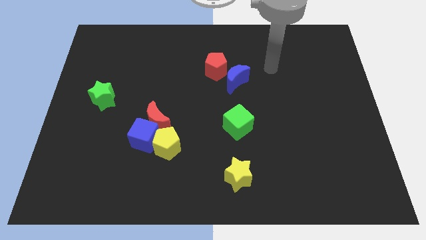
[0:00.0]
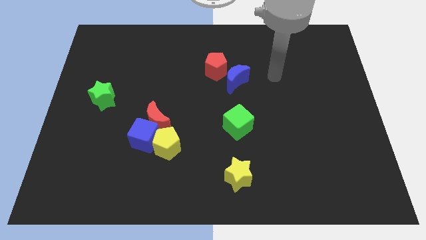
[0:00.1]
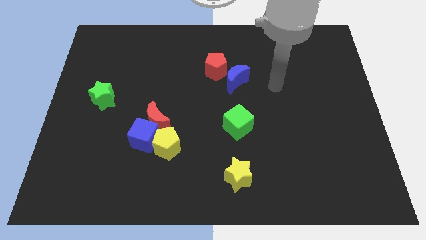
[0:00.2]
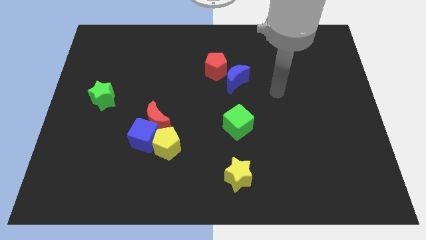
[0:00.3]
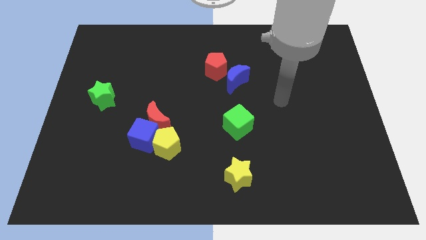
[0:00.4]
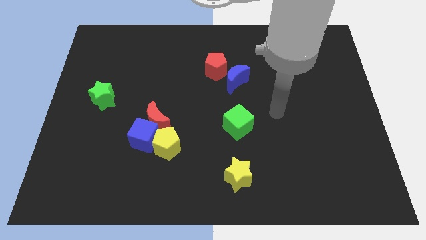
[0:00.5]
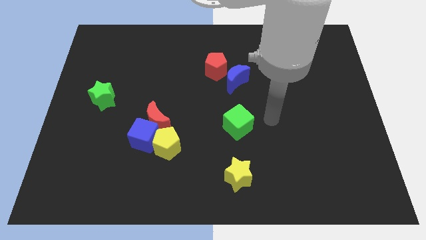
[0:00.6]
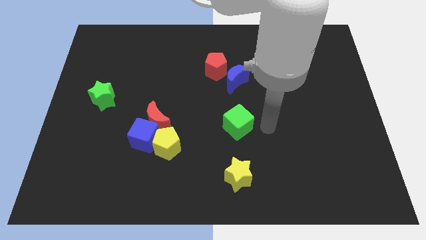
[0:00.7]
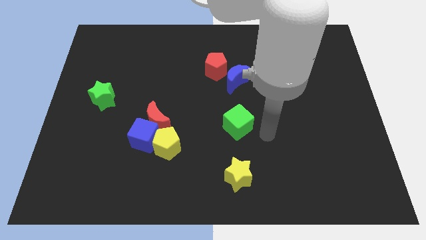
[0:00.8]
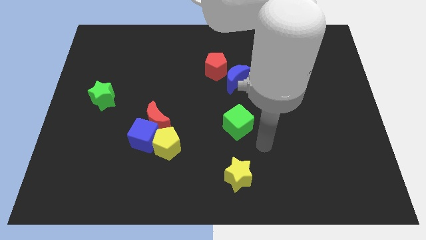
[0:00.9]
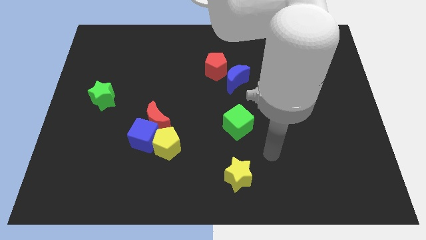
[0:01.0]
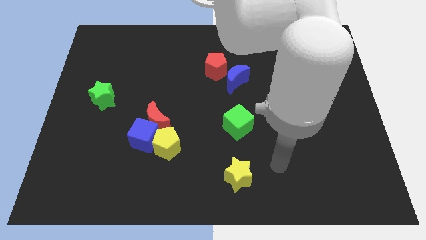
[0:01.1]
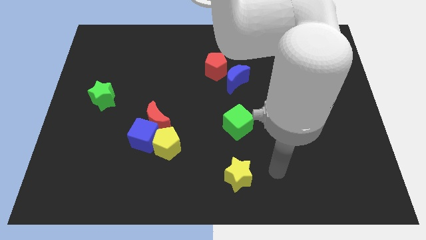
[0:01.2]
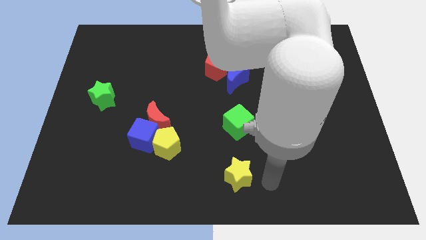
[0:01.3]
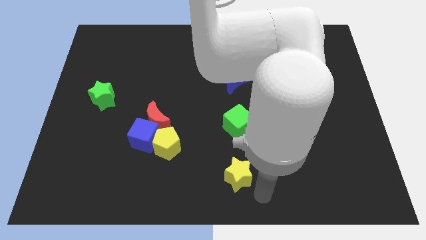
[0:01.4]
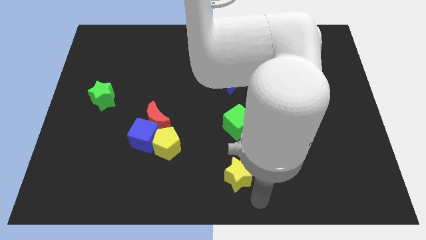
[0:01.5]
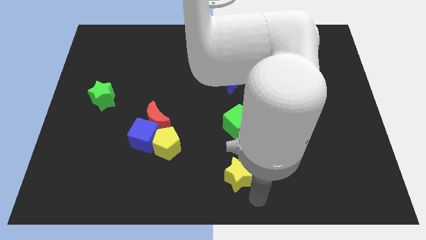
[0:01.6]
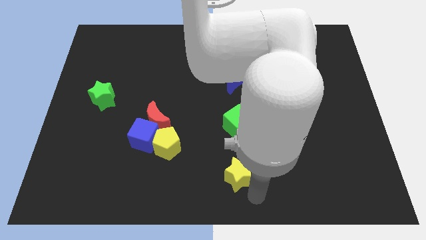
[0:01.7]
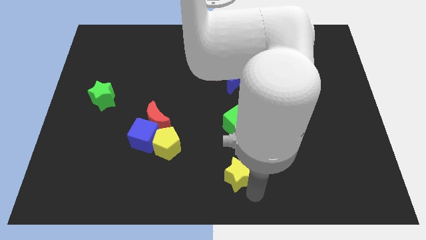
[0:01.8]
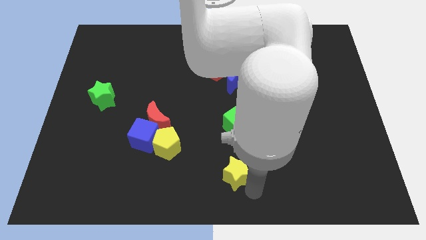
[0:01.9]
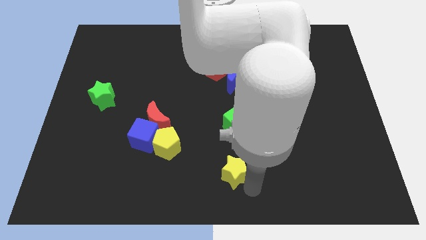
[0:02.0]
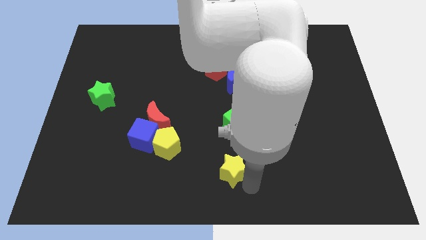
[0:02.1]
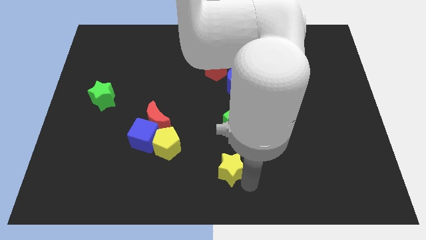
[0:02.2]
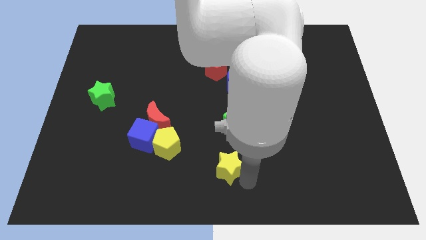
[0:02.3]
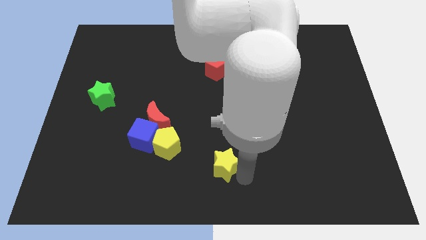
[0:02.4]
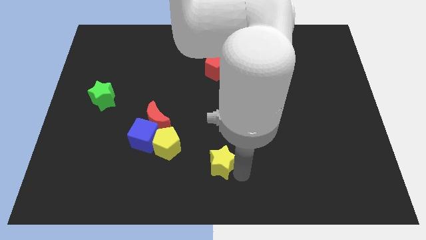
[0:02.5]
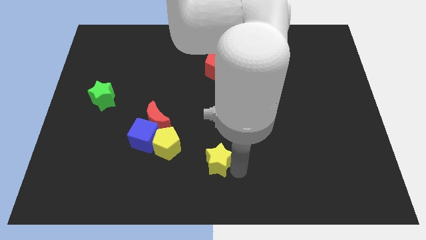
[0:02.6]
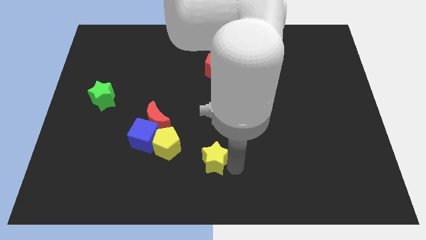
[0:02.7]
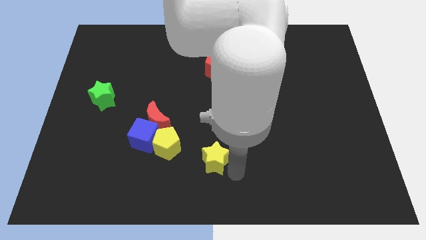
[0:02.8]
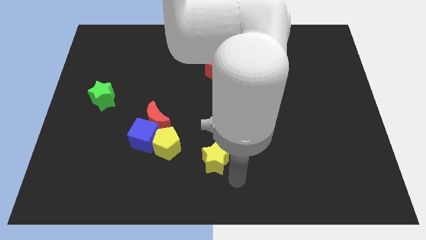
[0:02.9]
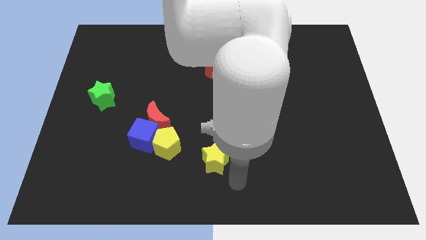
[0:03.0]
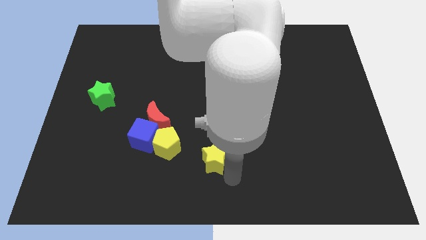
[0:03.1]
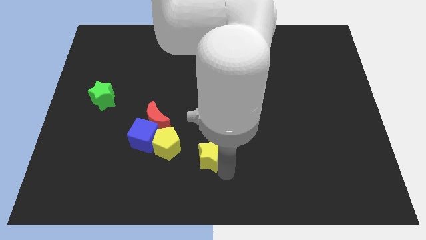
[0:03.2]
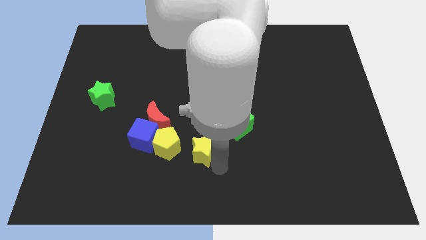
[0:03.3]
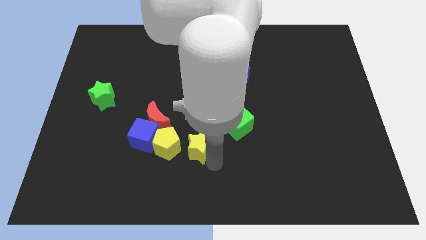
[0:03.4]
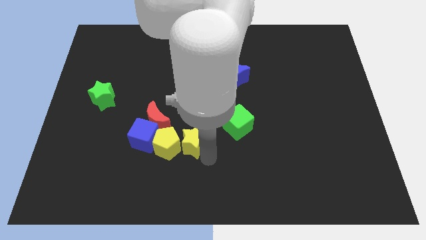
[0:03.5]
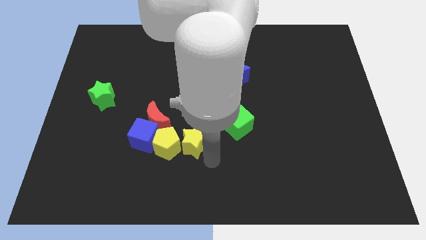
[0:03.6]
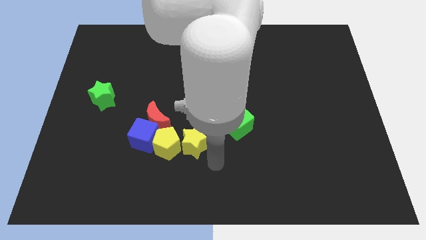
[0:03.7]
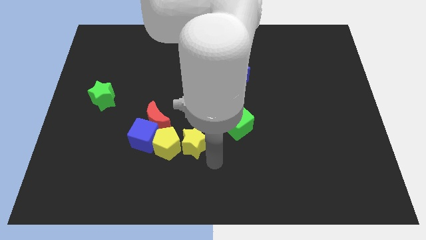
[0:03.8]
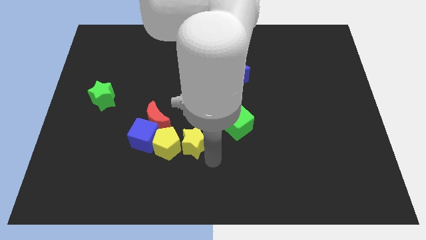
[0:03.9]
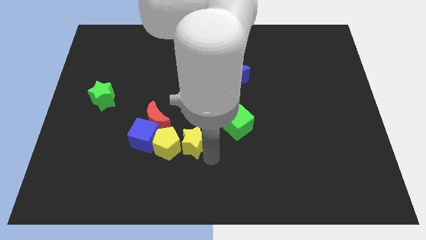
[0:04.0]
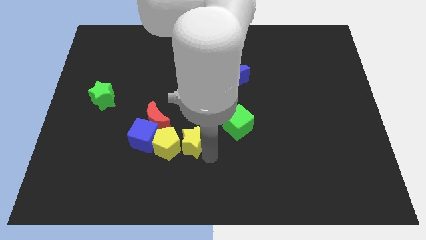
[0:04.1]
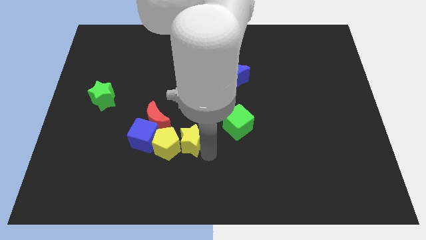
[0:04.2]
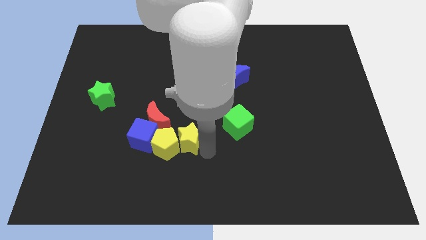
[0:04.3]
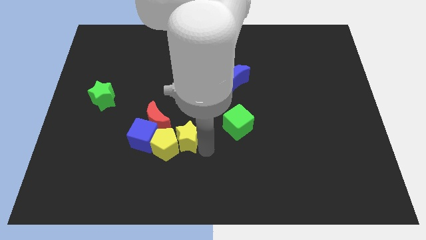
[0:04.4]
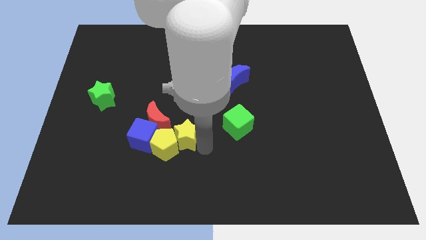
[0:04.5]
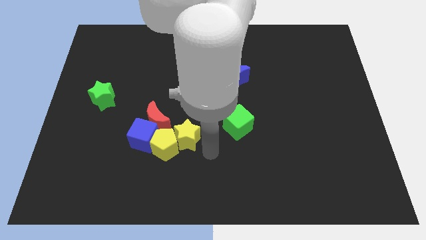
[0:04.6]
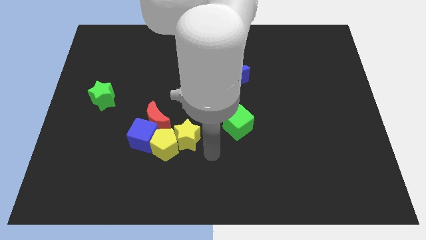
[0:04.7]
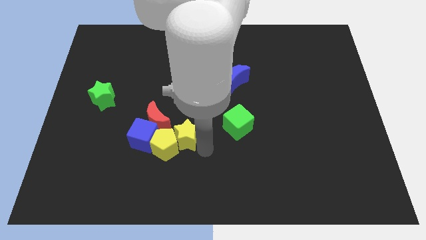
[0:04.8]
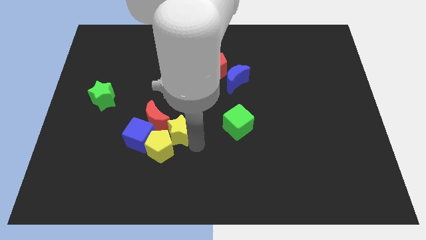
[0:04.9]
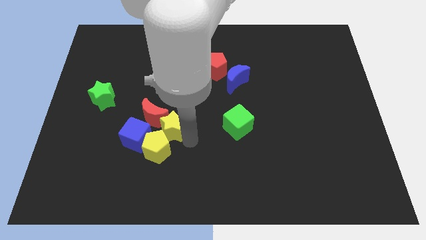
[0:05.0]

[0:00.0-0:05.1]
move the yellow star towards the red moon

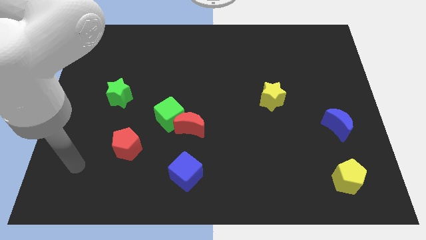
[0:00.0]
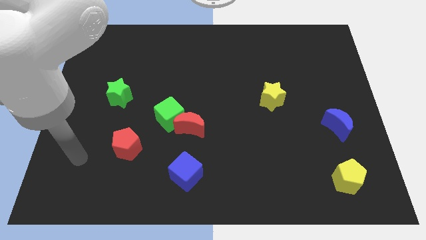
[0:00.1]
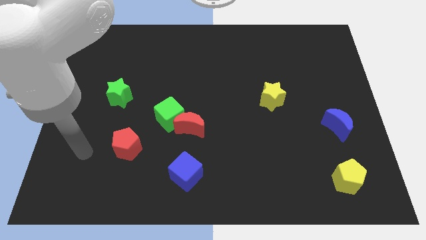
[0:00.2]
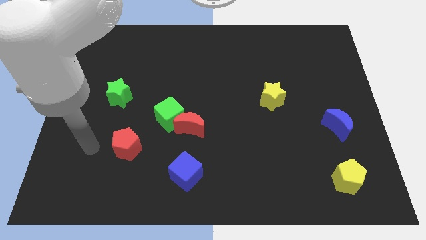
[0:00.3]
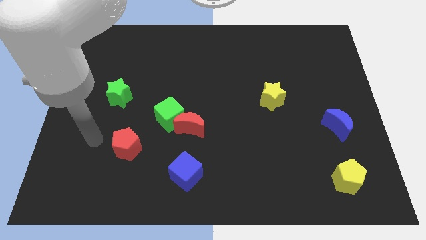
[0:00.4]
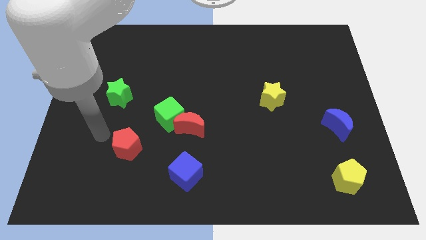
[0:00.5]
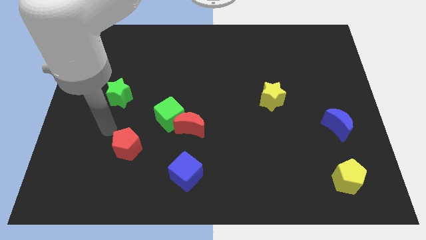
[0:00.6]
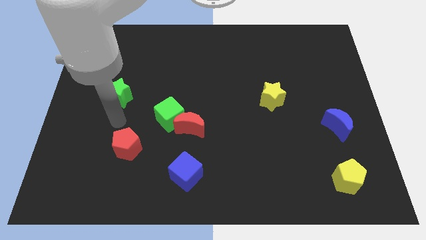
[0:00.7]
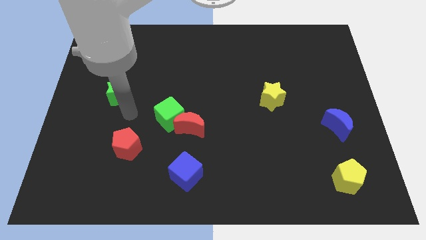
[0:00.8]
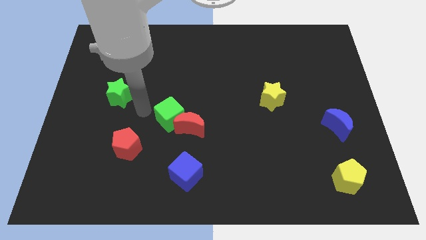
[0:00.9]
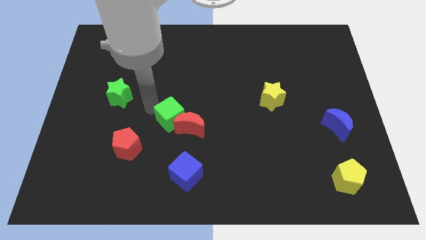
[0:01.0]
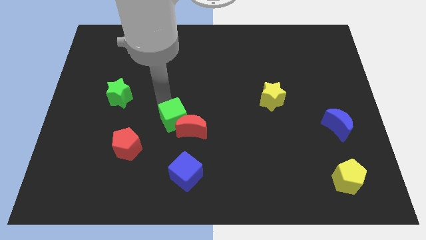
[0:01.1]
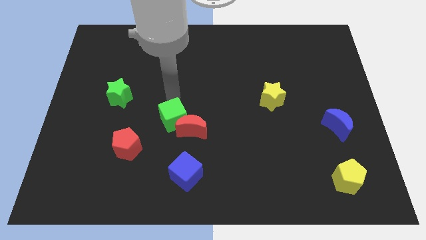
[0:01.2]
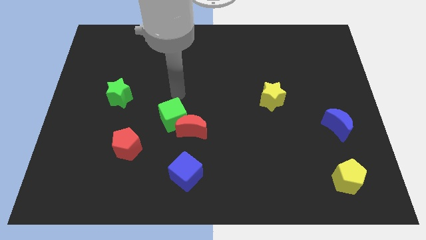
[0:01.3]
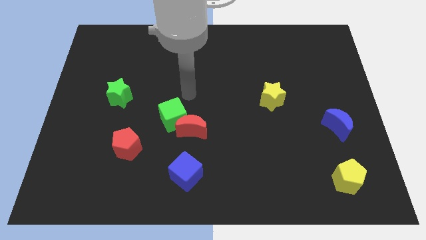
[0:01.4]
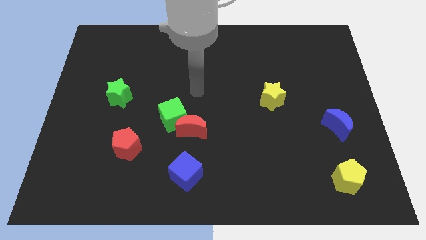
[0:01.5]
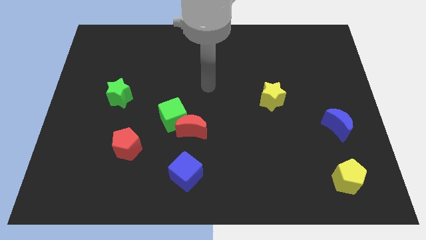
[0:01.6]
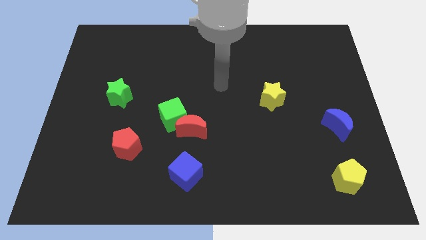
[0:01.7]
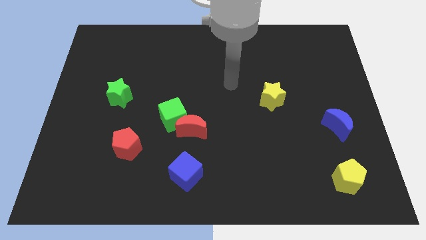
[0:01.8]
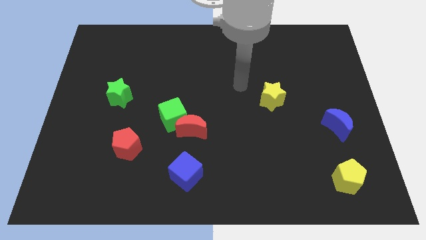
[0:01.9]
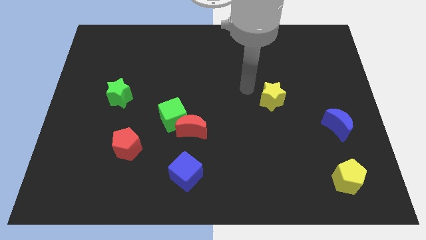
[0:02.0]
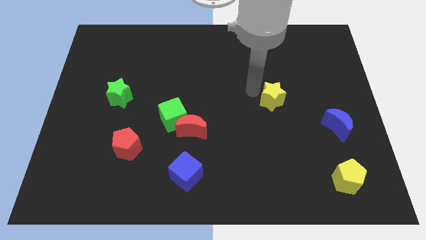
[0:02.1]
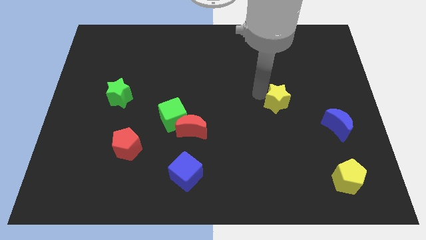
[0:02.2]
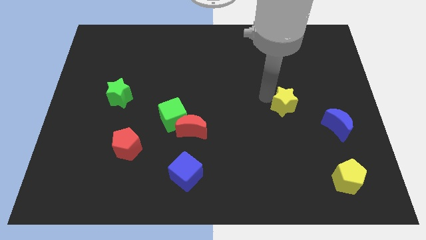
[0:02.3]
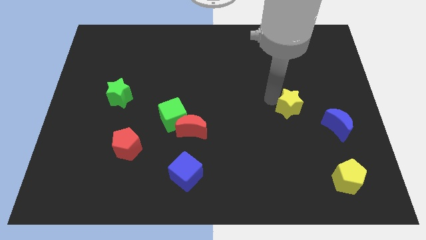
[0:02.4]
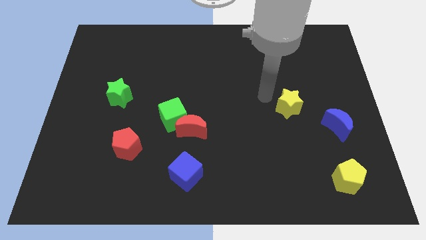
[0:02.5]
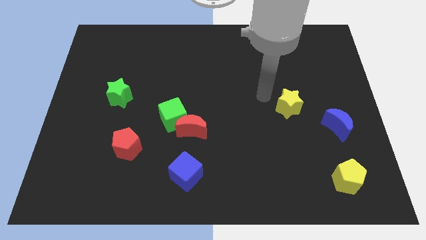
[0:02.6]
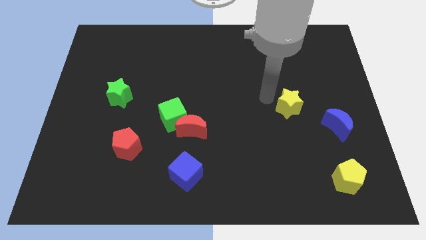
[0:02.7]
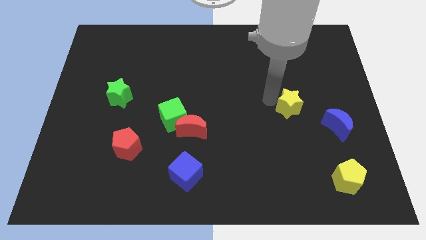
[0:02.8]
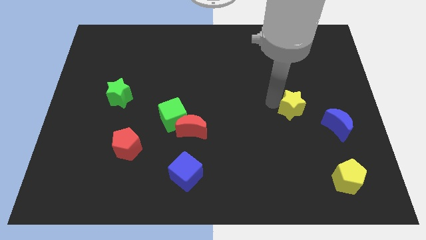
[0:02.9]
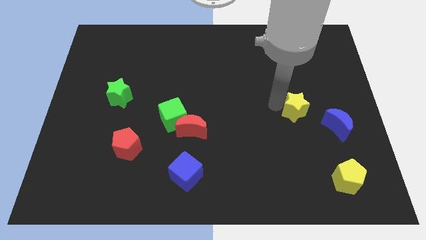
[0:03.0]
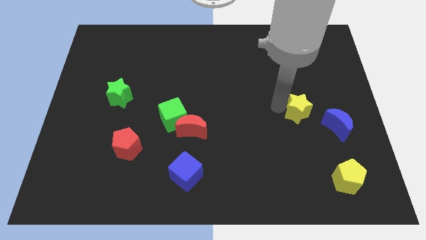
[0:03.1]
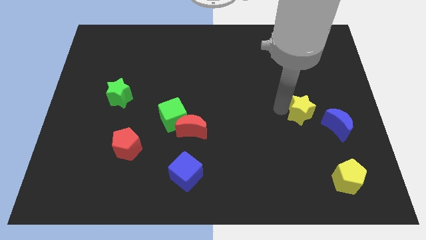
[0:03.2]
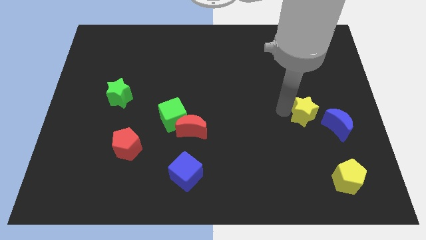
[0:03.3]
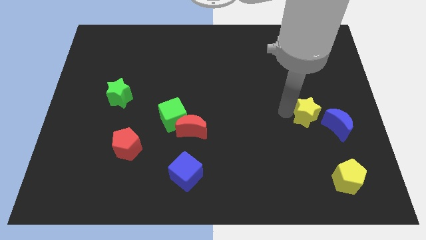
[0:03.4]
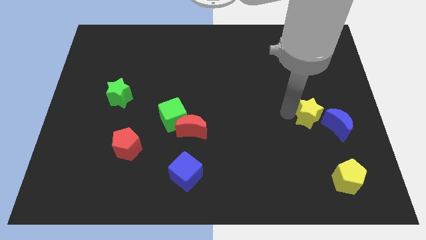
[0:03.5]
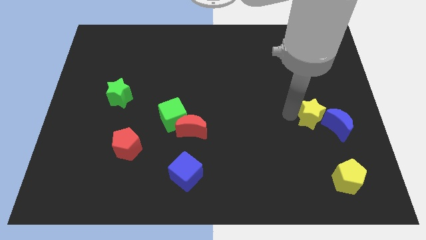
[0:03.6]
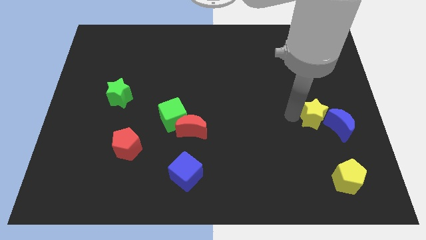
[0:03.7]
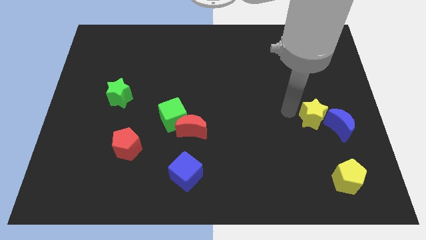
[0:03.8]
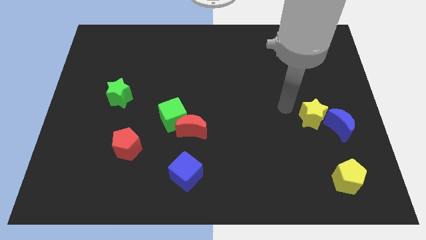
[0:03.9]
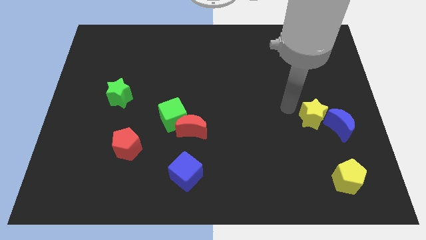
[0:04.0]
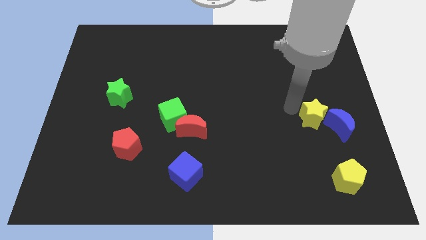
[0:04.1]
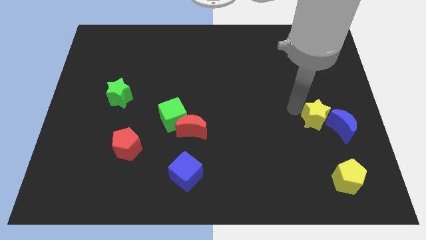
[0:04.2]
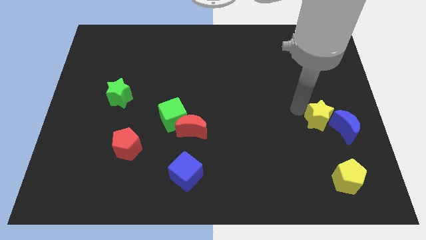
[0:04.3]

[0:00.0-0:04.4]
put the yellow star towards the blue moon
